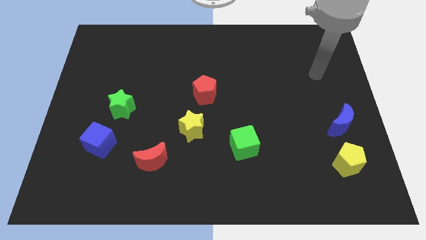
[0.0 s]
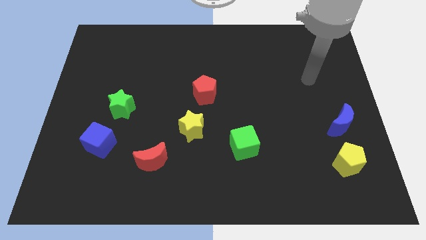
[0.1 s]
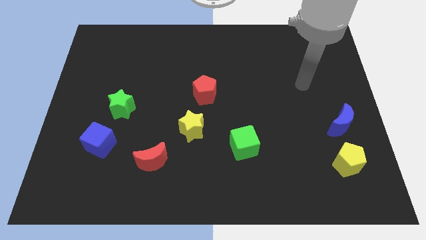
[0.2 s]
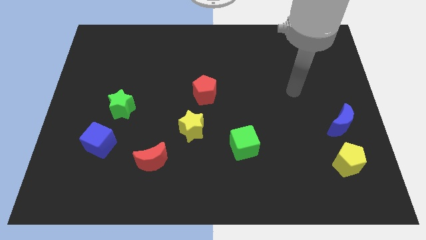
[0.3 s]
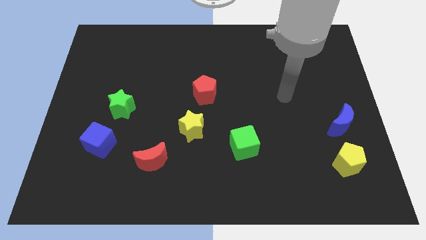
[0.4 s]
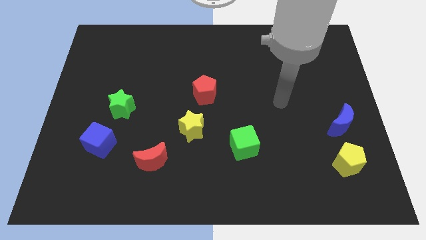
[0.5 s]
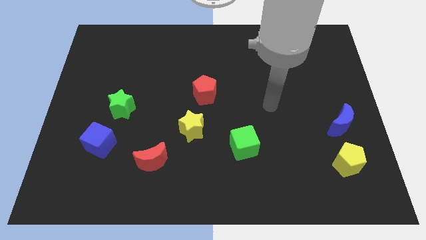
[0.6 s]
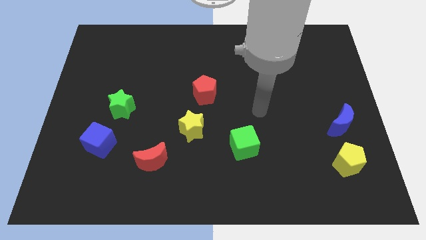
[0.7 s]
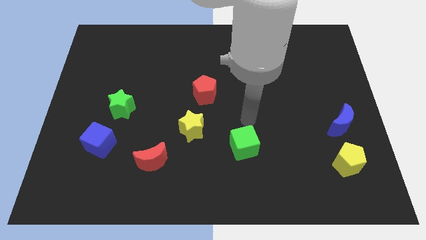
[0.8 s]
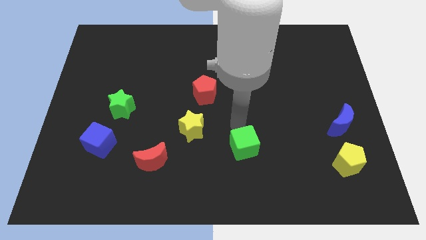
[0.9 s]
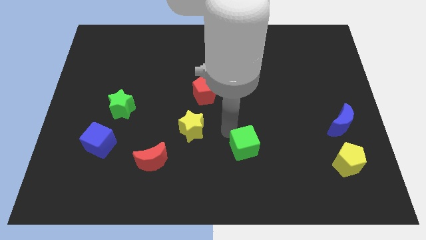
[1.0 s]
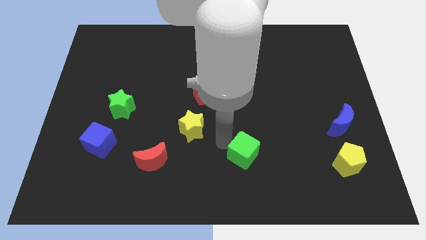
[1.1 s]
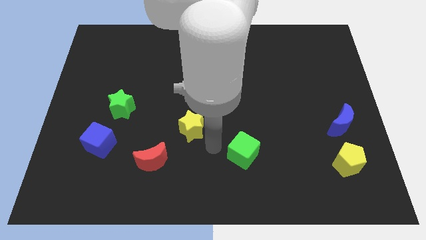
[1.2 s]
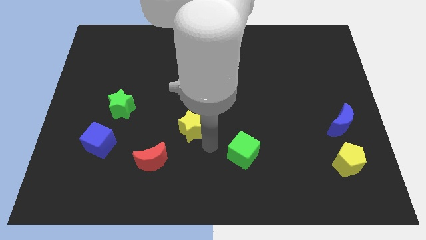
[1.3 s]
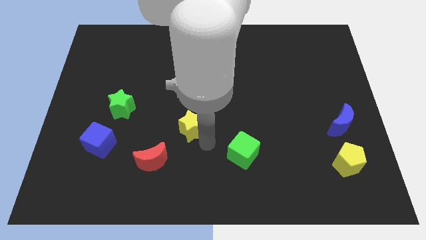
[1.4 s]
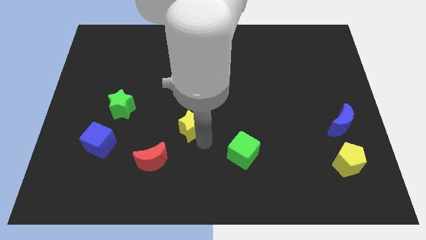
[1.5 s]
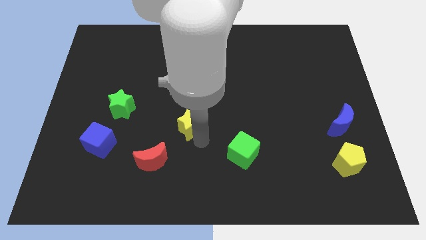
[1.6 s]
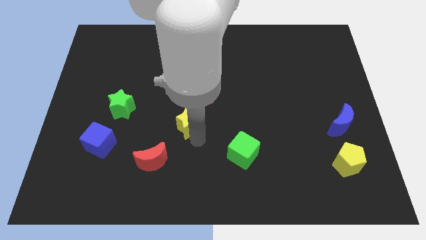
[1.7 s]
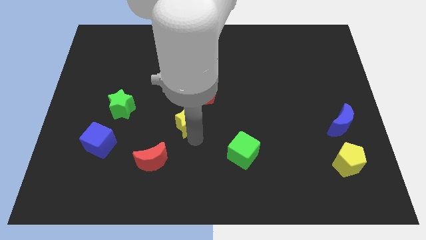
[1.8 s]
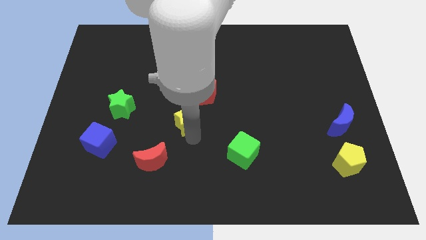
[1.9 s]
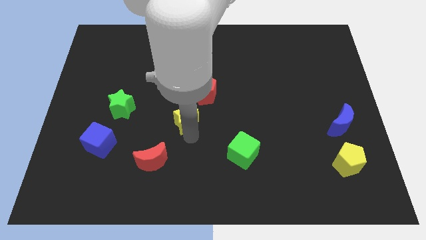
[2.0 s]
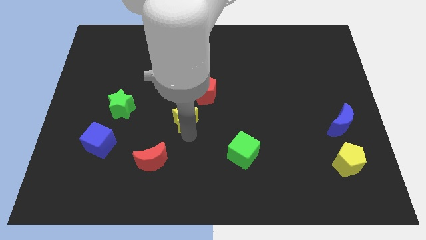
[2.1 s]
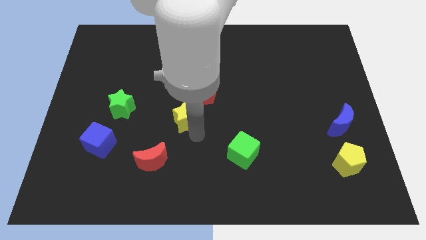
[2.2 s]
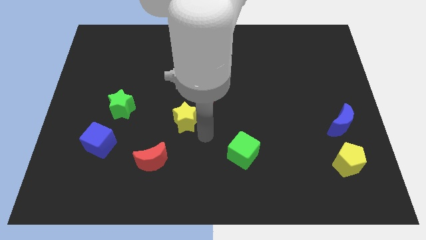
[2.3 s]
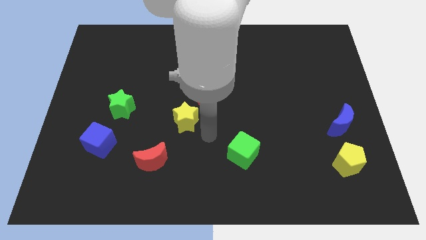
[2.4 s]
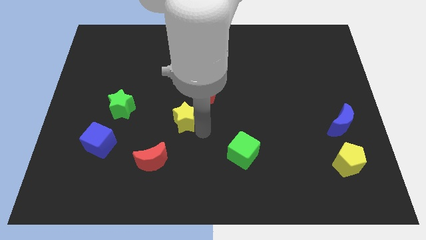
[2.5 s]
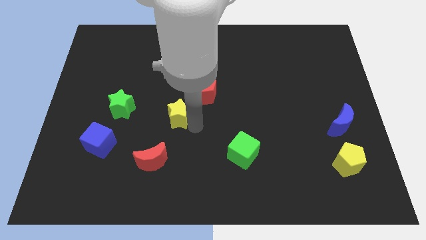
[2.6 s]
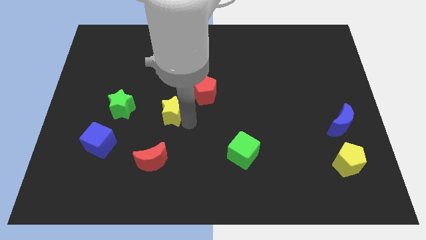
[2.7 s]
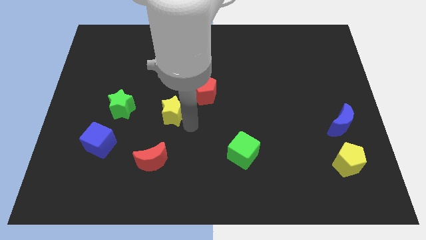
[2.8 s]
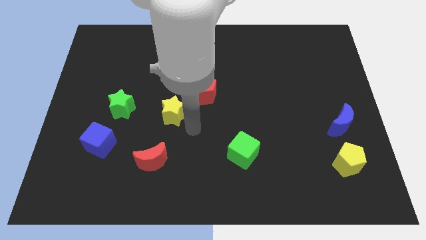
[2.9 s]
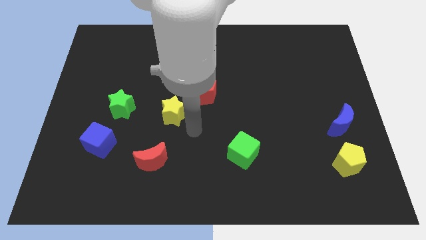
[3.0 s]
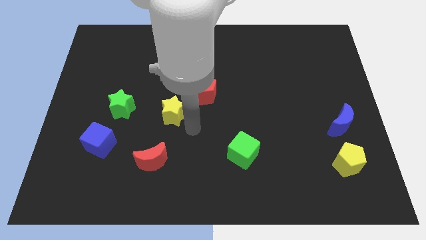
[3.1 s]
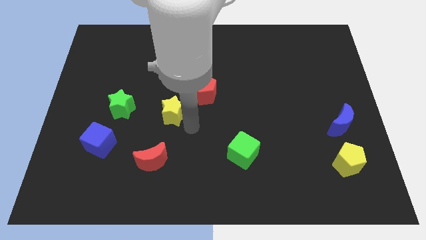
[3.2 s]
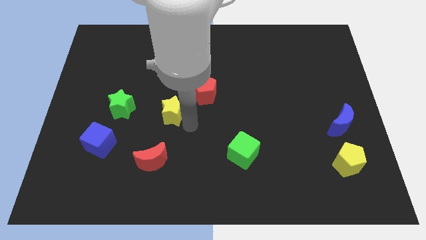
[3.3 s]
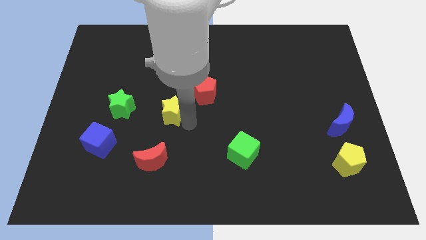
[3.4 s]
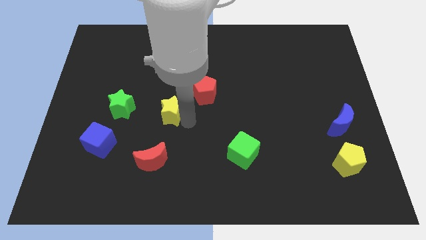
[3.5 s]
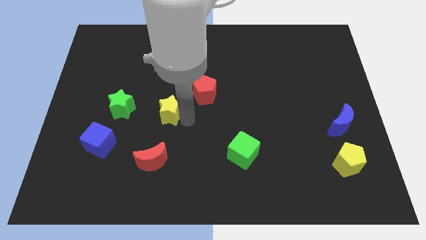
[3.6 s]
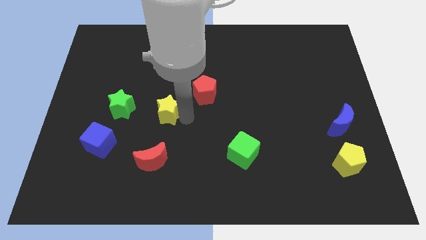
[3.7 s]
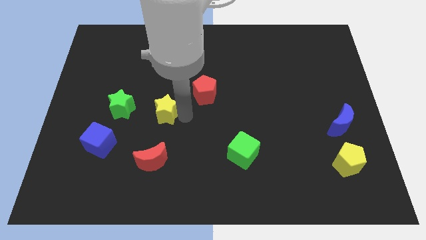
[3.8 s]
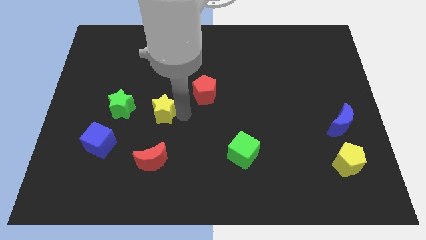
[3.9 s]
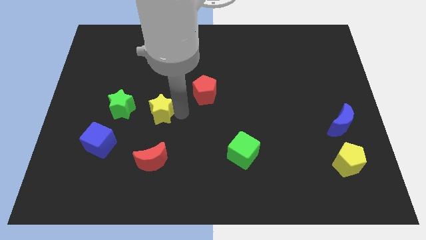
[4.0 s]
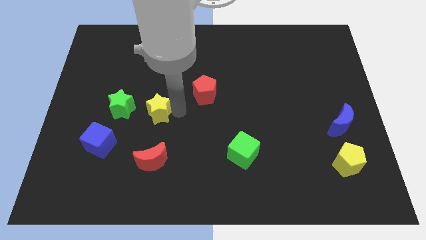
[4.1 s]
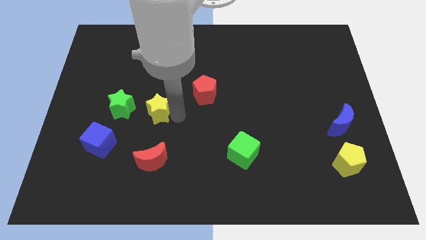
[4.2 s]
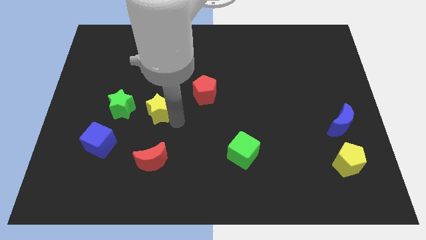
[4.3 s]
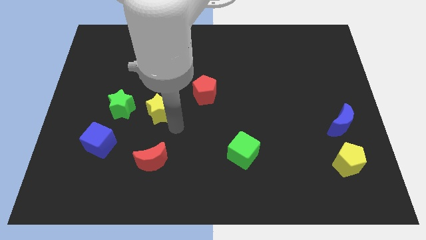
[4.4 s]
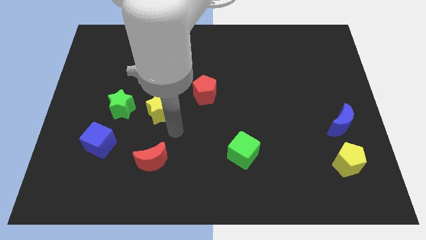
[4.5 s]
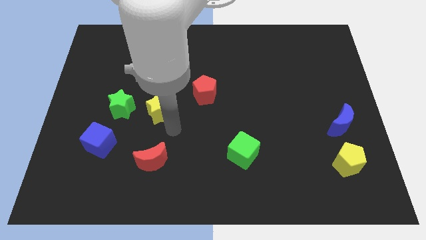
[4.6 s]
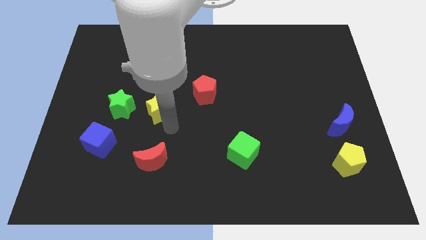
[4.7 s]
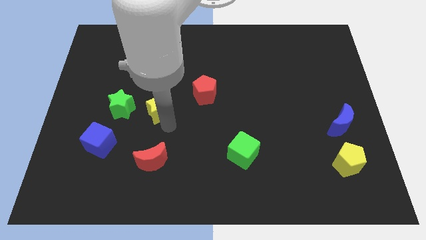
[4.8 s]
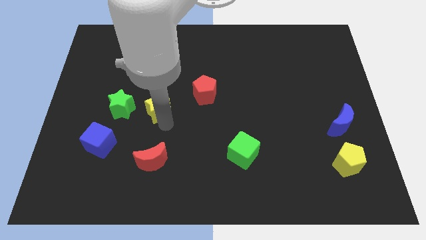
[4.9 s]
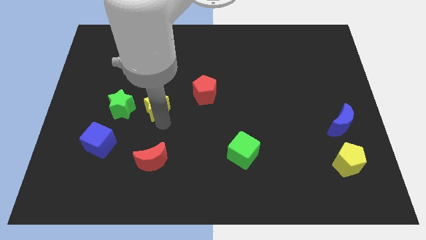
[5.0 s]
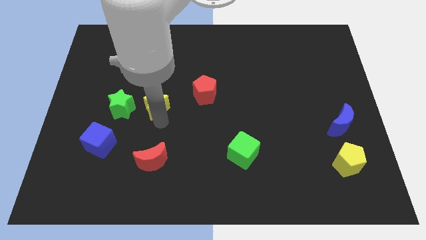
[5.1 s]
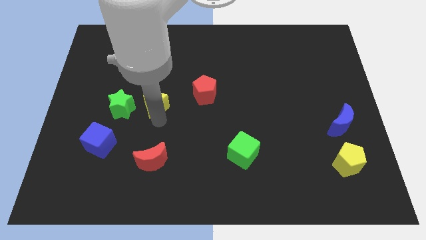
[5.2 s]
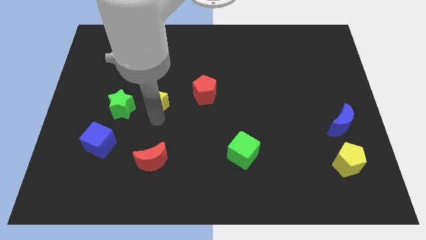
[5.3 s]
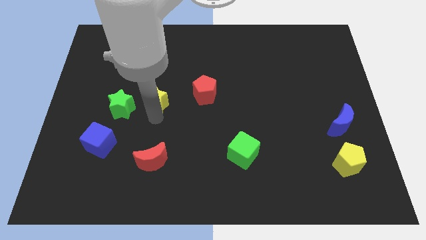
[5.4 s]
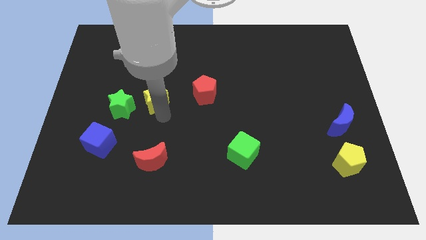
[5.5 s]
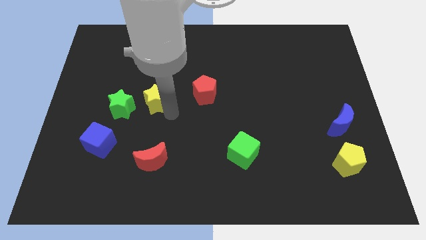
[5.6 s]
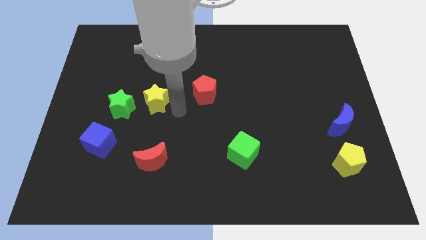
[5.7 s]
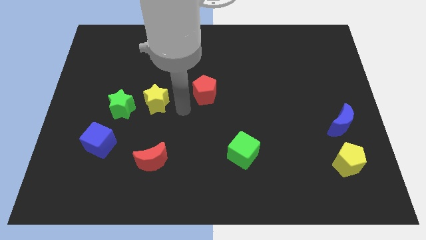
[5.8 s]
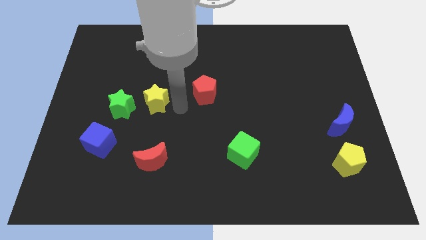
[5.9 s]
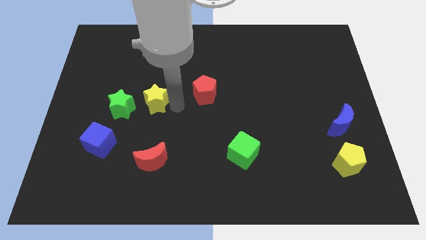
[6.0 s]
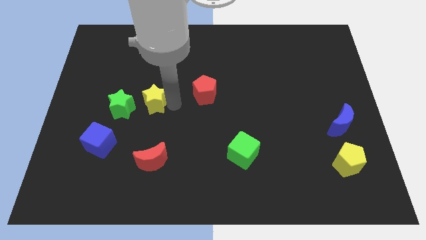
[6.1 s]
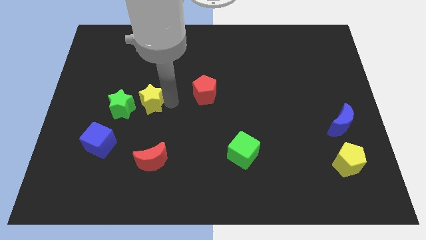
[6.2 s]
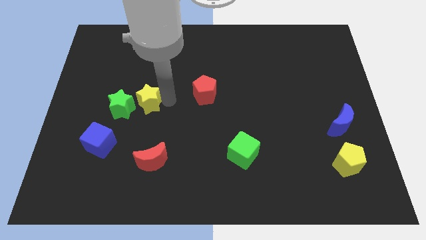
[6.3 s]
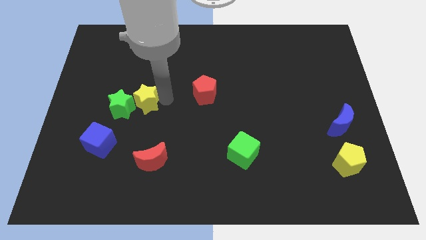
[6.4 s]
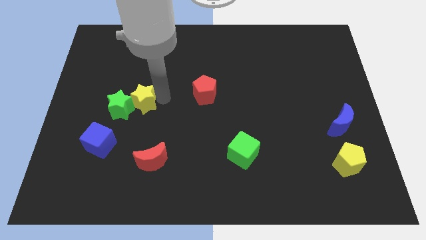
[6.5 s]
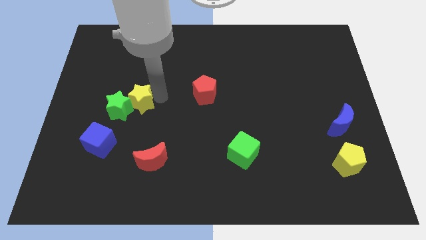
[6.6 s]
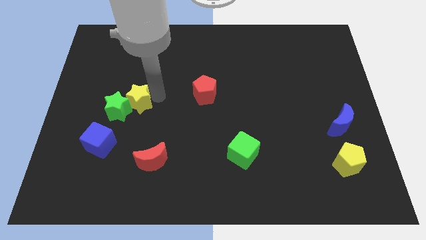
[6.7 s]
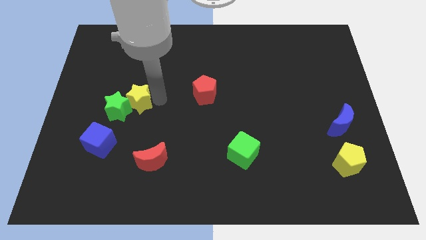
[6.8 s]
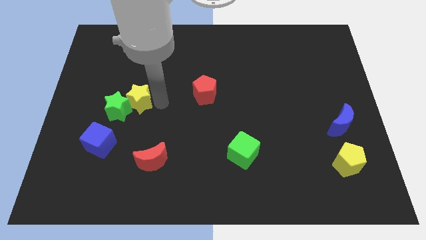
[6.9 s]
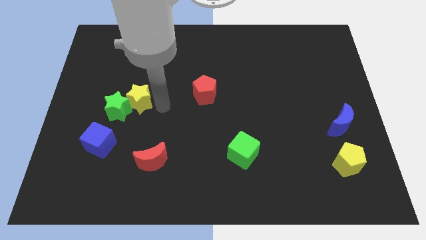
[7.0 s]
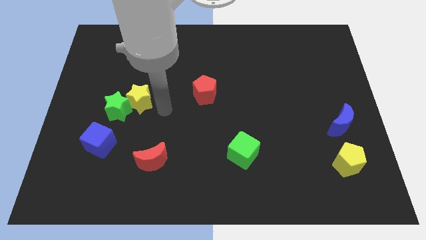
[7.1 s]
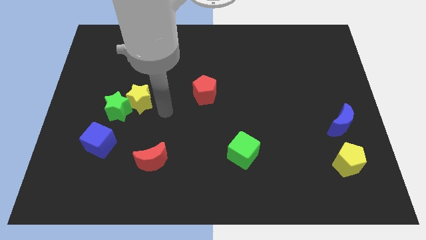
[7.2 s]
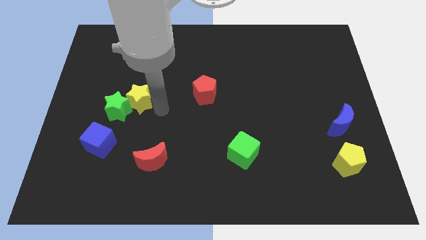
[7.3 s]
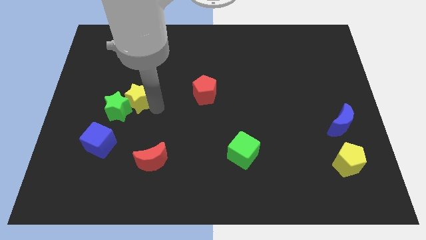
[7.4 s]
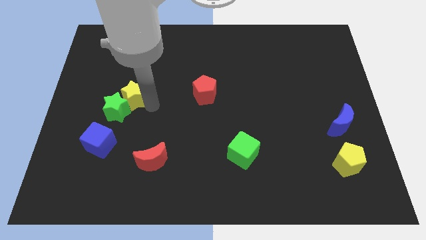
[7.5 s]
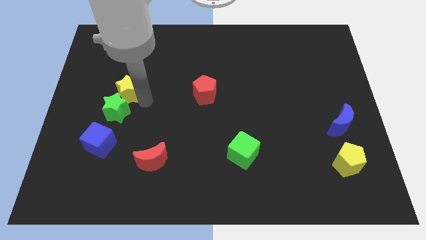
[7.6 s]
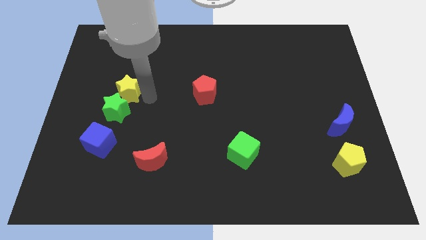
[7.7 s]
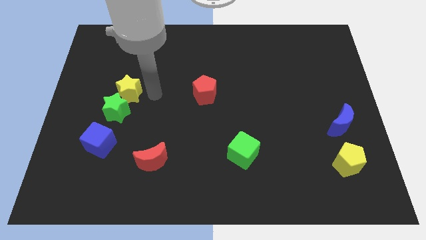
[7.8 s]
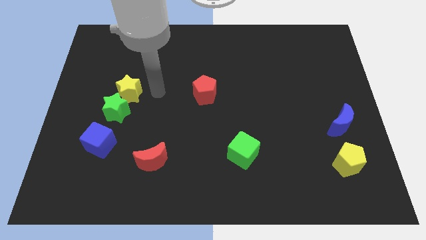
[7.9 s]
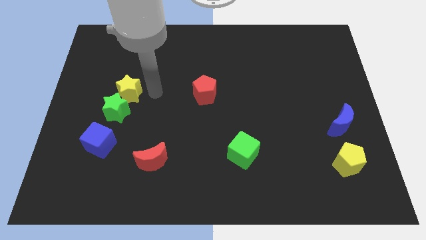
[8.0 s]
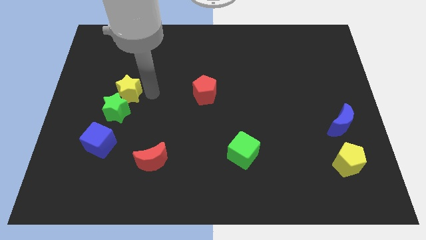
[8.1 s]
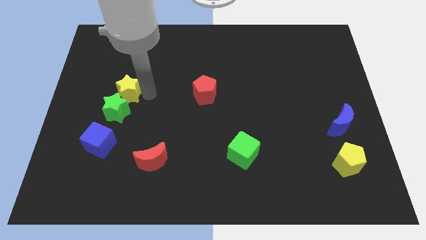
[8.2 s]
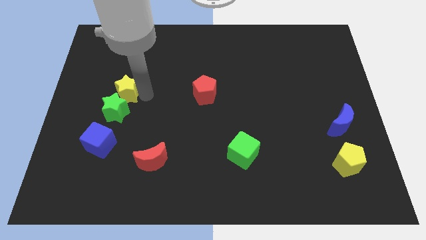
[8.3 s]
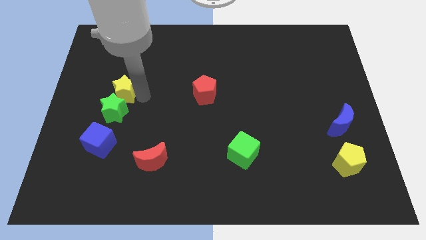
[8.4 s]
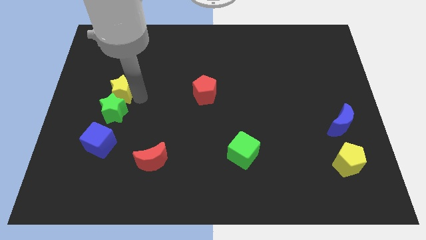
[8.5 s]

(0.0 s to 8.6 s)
slide the yellow star to the top left side of the green star
